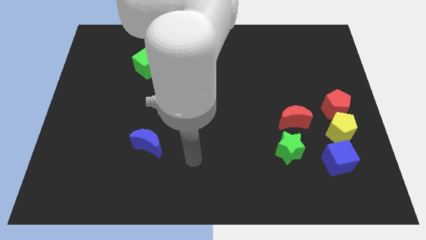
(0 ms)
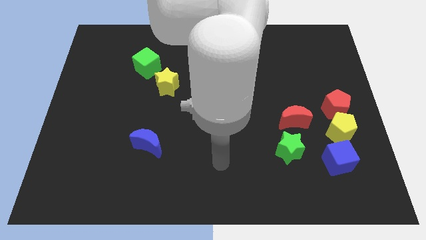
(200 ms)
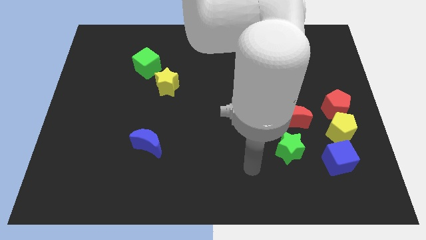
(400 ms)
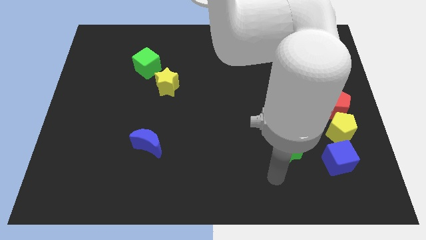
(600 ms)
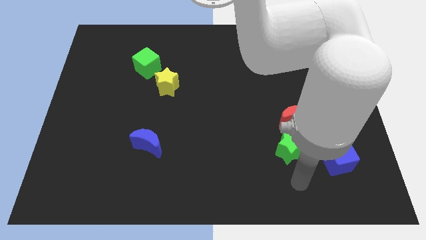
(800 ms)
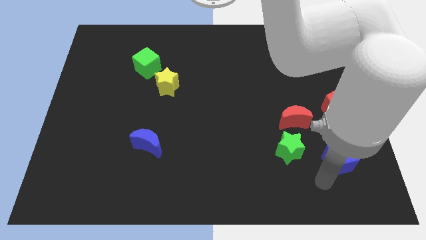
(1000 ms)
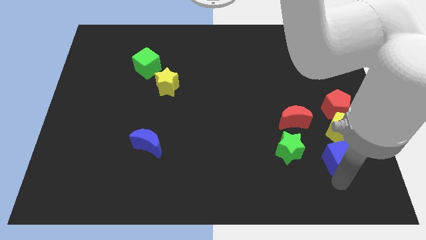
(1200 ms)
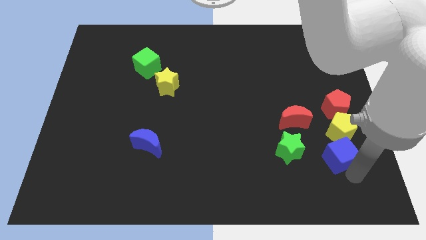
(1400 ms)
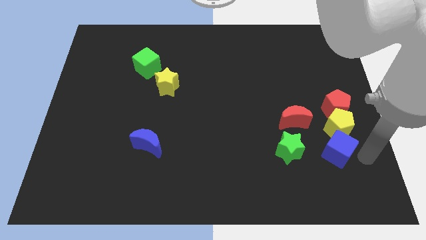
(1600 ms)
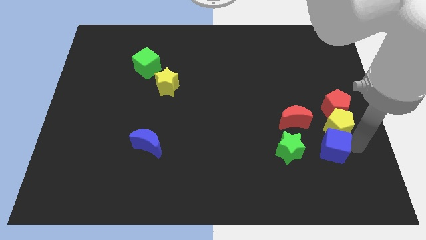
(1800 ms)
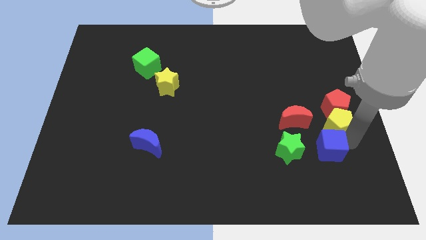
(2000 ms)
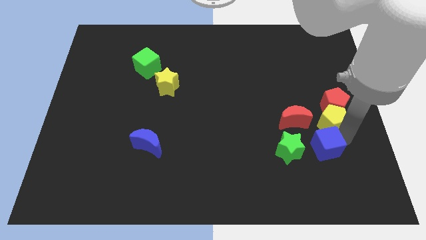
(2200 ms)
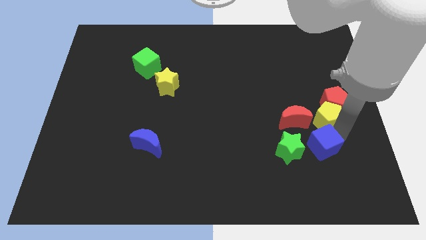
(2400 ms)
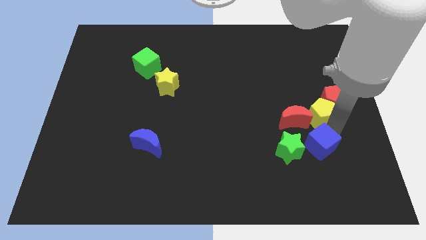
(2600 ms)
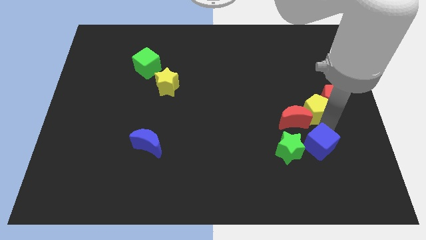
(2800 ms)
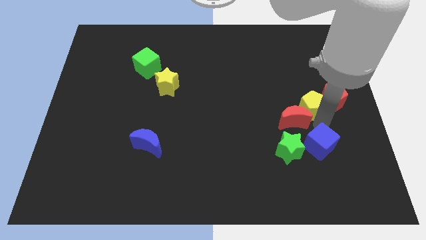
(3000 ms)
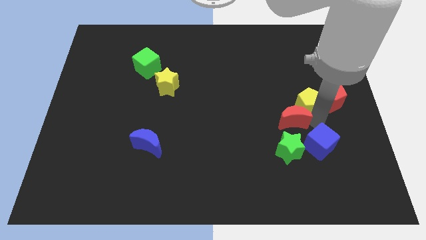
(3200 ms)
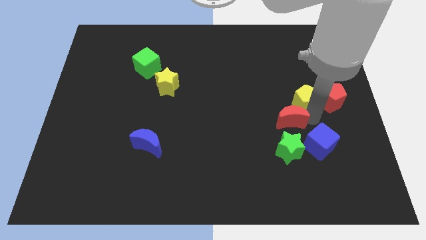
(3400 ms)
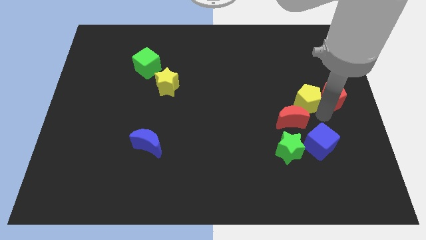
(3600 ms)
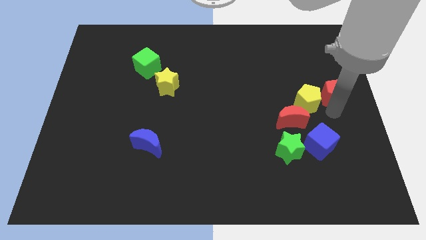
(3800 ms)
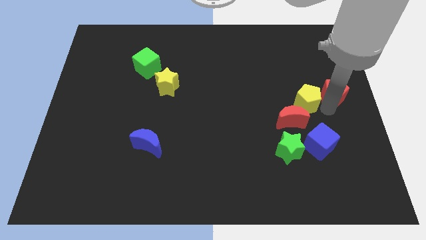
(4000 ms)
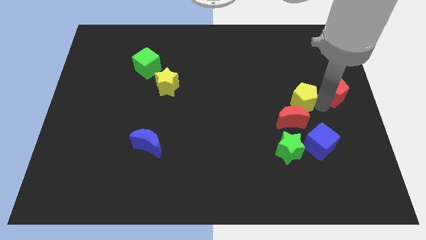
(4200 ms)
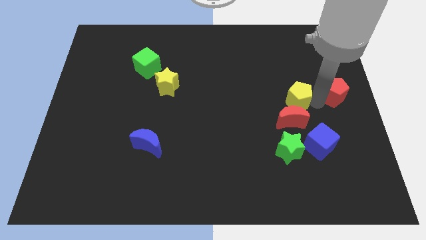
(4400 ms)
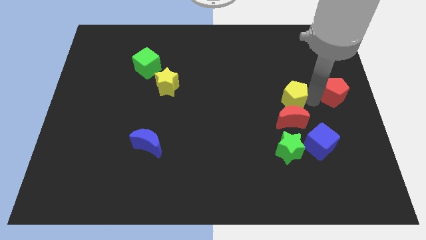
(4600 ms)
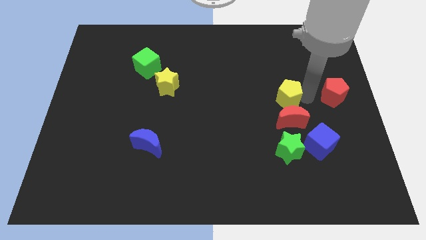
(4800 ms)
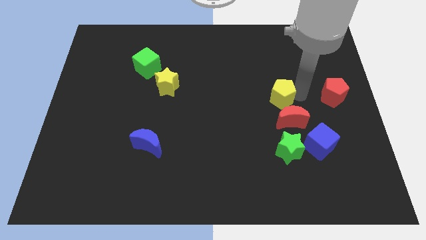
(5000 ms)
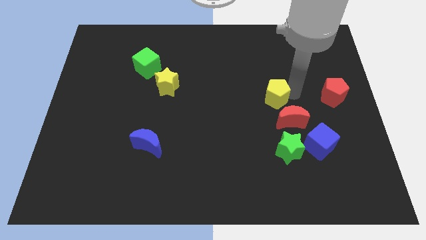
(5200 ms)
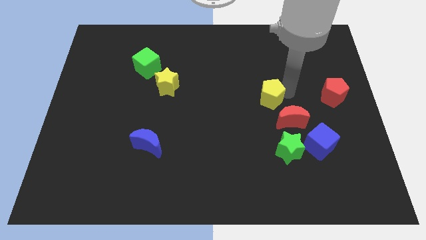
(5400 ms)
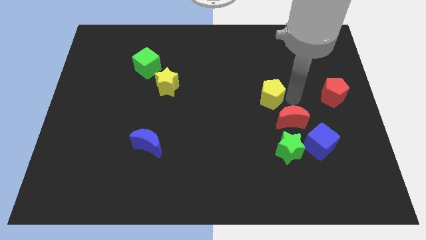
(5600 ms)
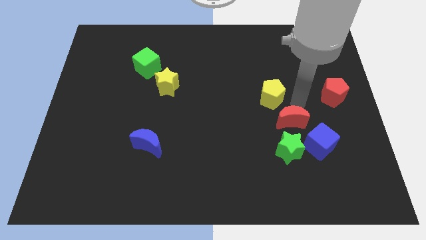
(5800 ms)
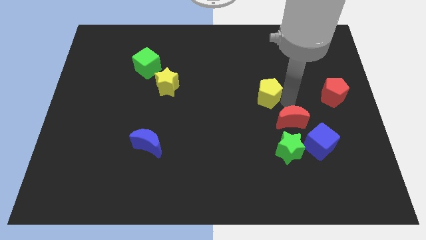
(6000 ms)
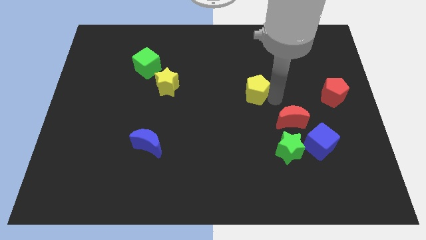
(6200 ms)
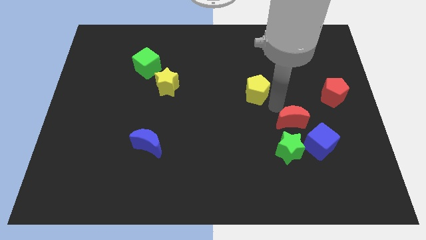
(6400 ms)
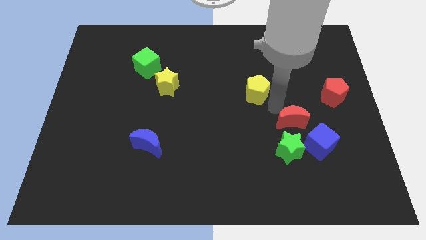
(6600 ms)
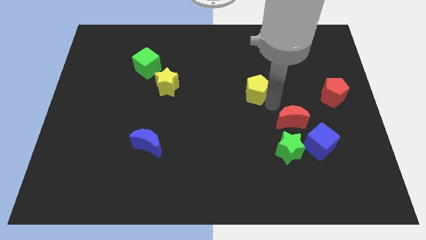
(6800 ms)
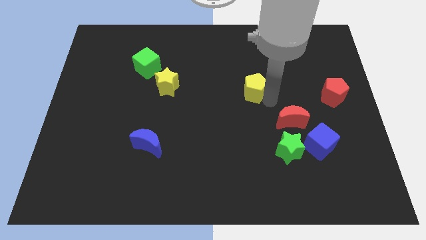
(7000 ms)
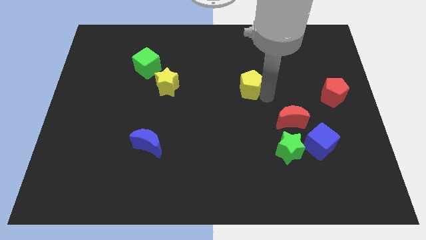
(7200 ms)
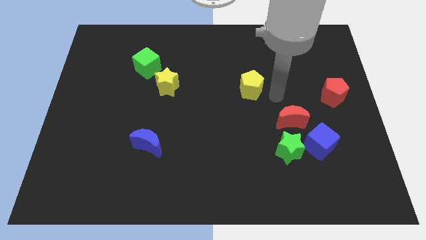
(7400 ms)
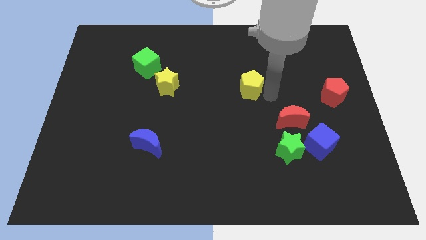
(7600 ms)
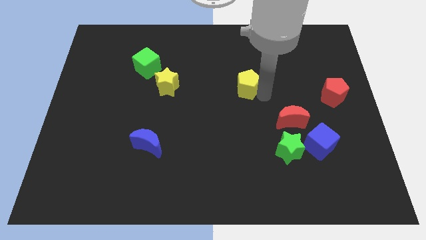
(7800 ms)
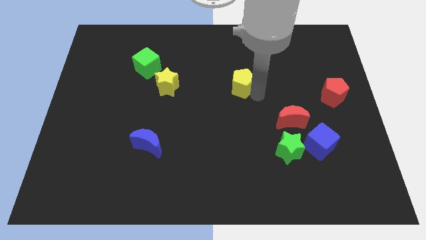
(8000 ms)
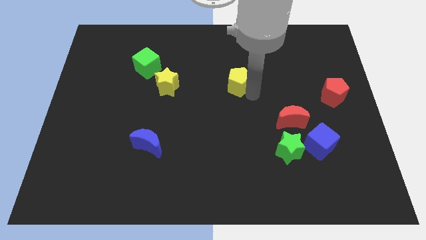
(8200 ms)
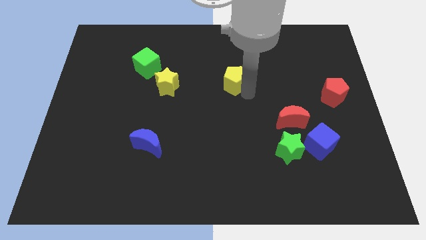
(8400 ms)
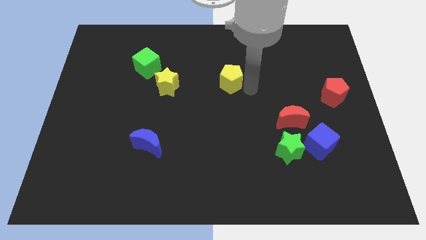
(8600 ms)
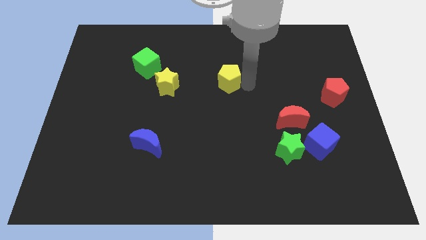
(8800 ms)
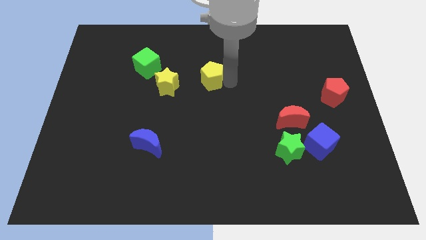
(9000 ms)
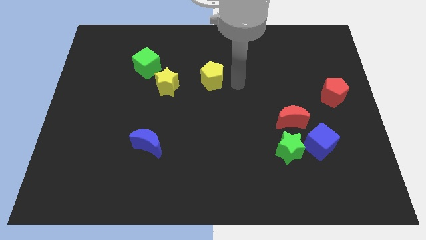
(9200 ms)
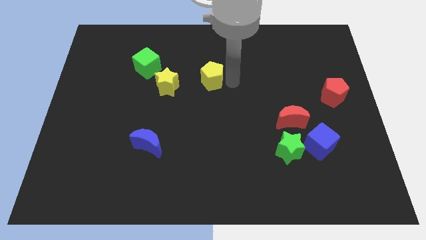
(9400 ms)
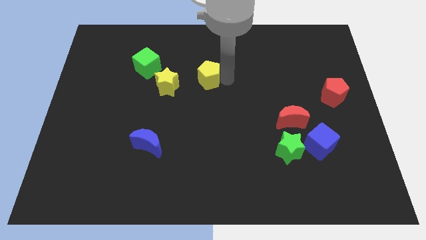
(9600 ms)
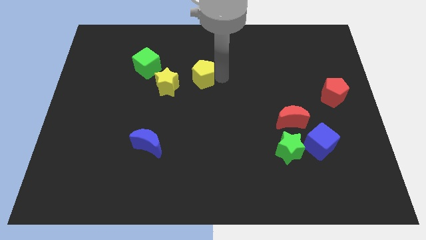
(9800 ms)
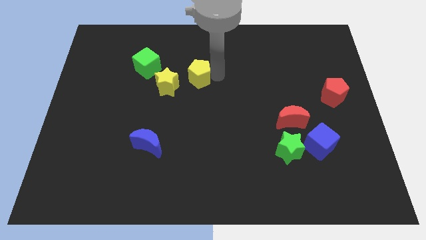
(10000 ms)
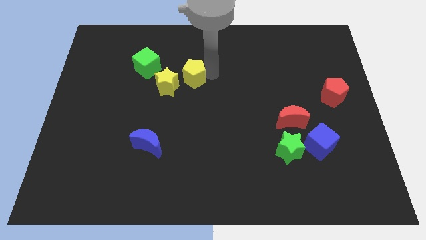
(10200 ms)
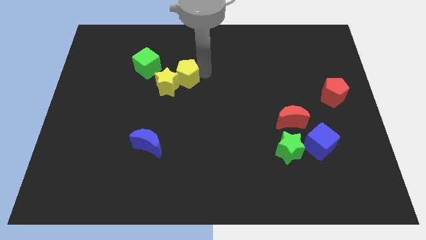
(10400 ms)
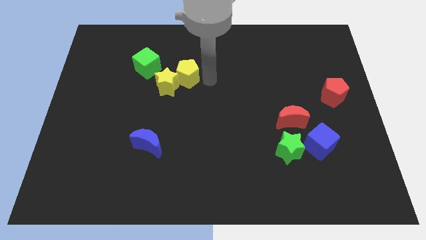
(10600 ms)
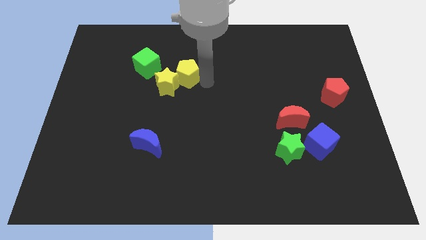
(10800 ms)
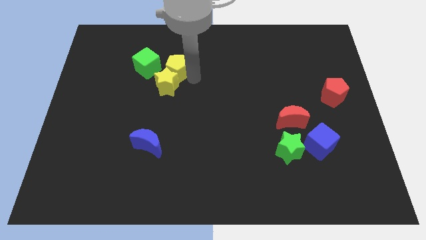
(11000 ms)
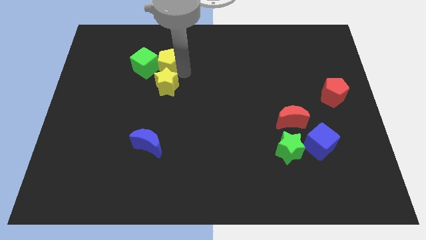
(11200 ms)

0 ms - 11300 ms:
move the yellow pentagon towards the green cube

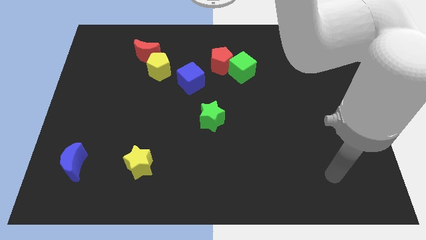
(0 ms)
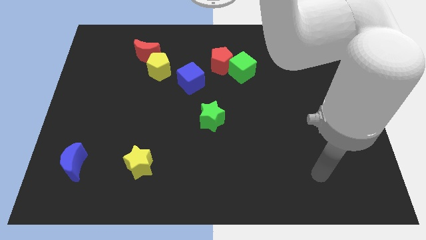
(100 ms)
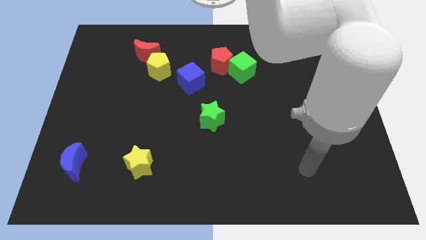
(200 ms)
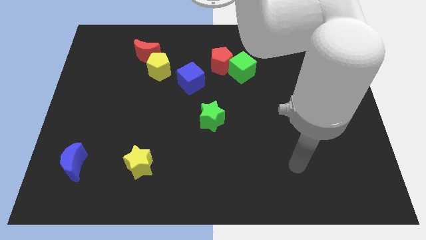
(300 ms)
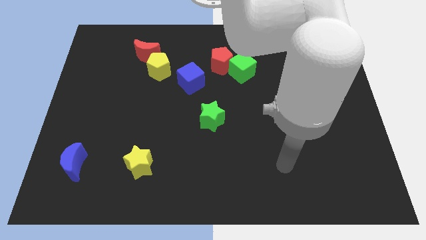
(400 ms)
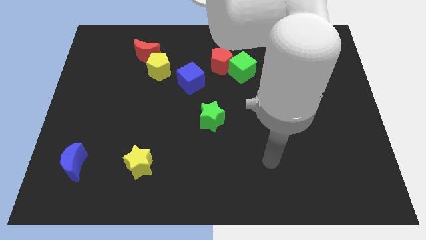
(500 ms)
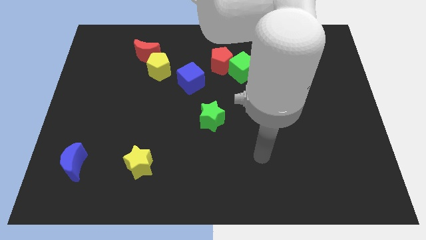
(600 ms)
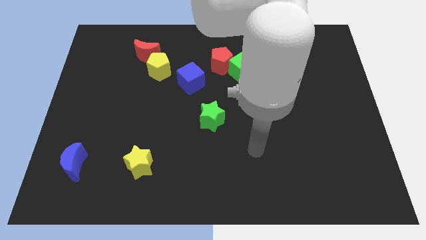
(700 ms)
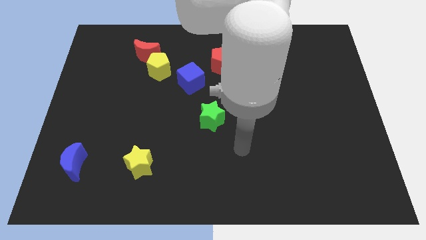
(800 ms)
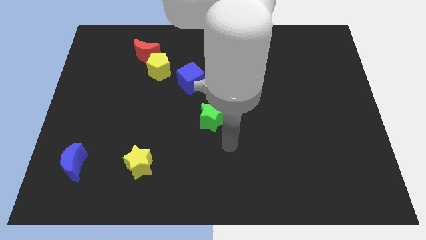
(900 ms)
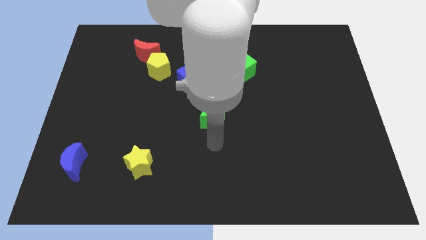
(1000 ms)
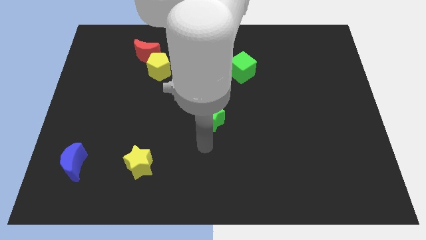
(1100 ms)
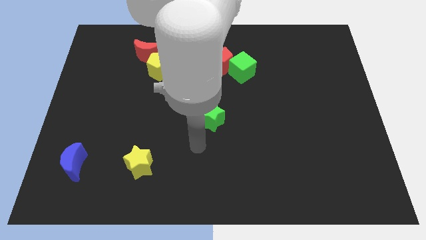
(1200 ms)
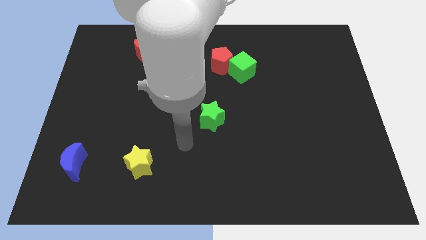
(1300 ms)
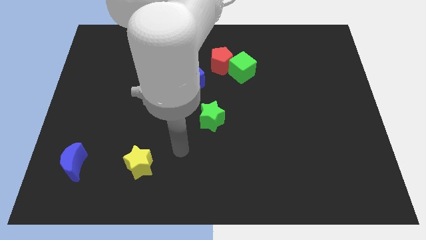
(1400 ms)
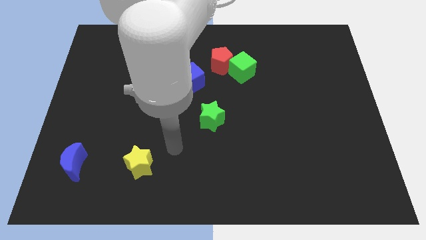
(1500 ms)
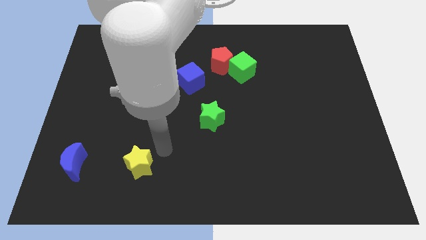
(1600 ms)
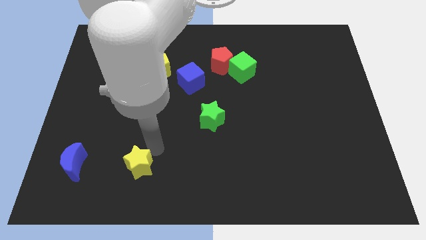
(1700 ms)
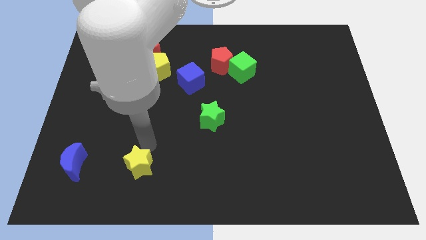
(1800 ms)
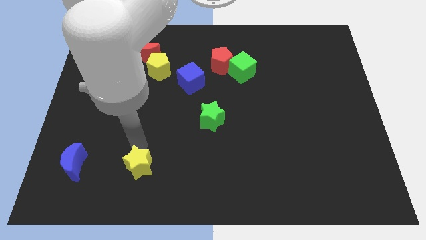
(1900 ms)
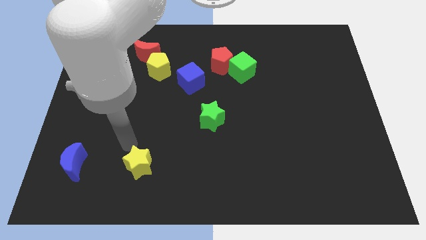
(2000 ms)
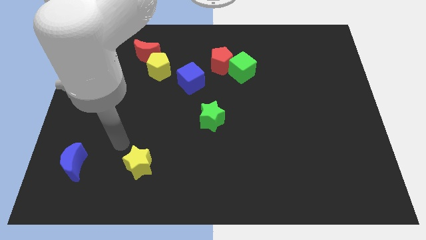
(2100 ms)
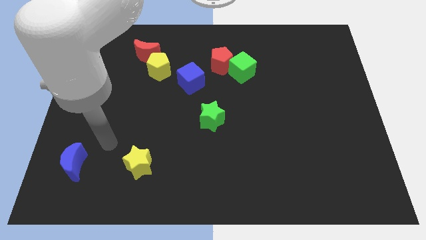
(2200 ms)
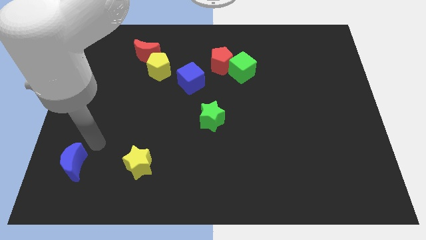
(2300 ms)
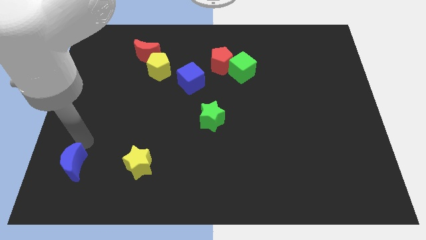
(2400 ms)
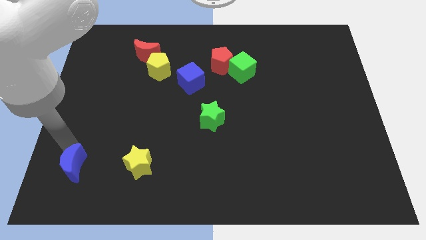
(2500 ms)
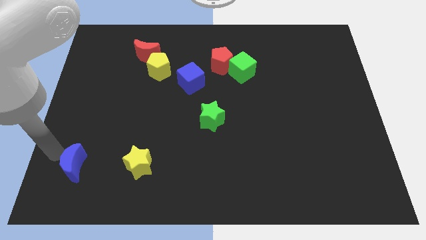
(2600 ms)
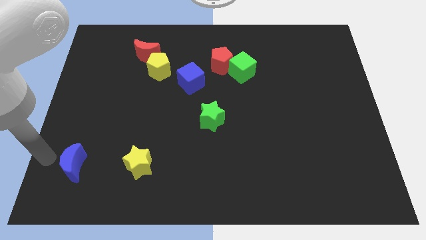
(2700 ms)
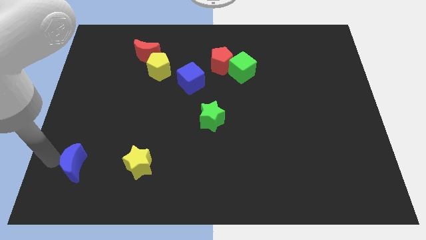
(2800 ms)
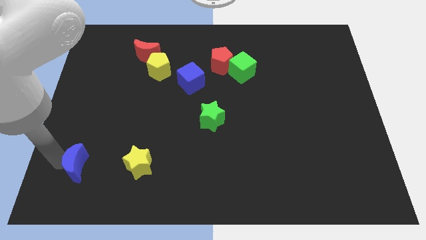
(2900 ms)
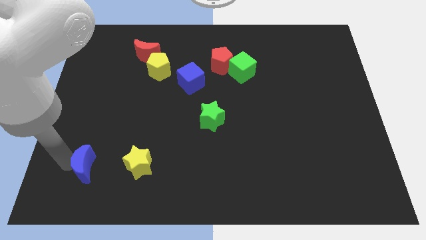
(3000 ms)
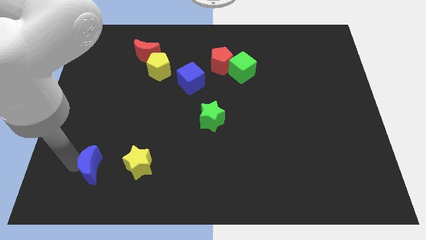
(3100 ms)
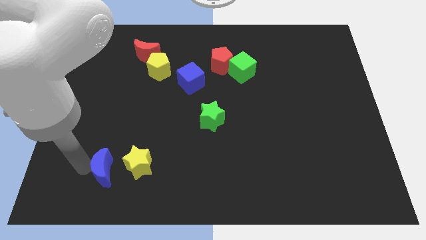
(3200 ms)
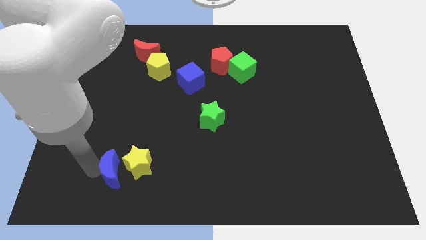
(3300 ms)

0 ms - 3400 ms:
push the blue moon close to the yellow star
